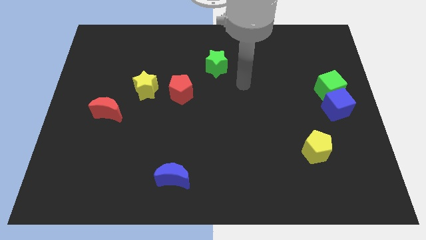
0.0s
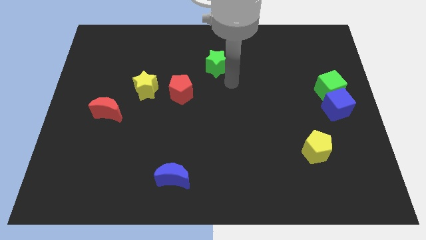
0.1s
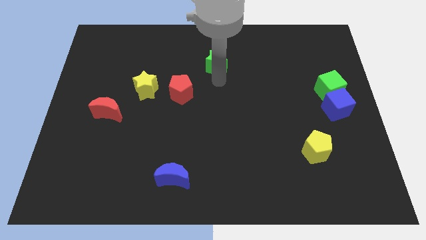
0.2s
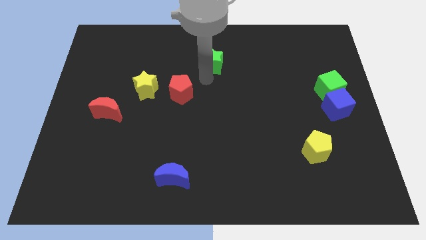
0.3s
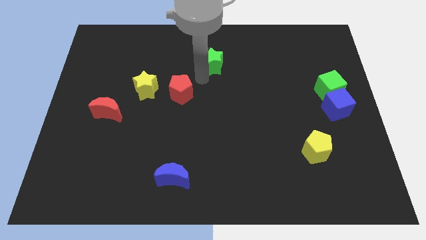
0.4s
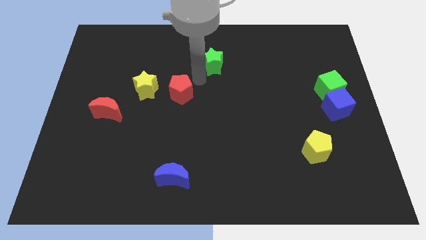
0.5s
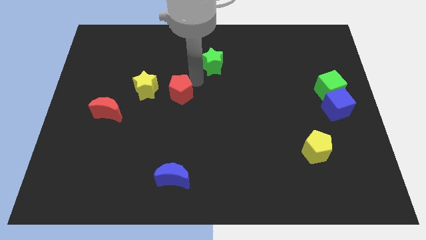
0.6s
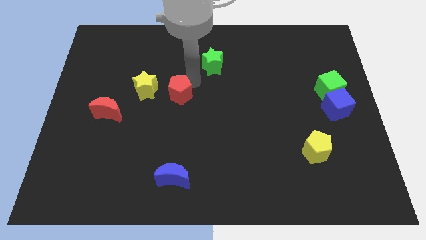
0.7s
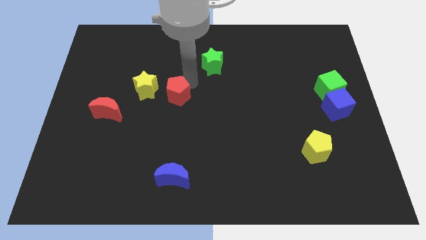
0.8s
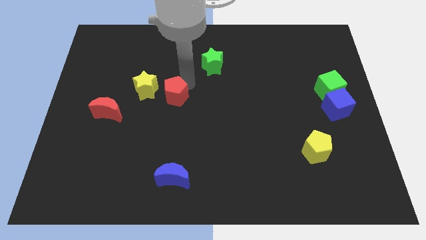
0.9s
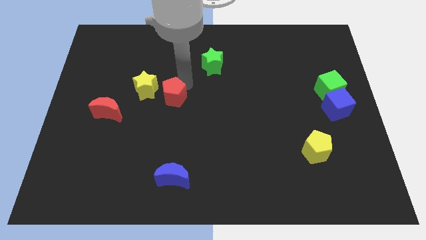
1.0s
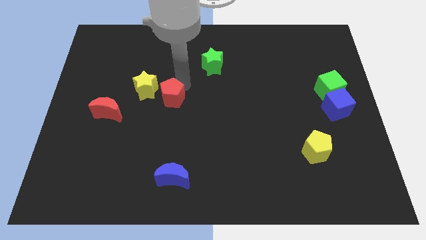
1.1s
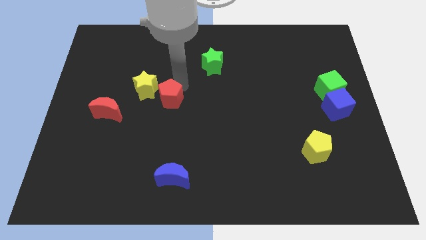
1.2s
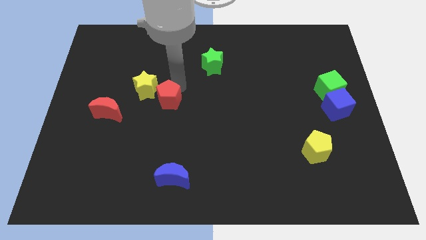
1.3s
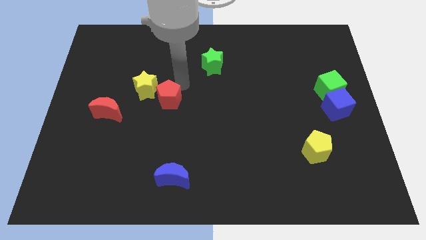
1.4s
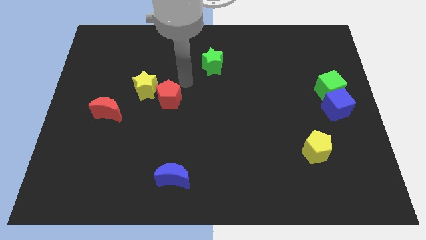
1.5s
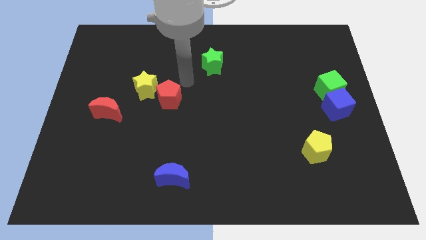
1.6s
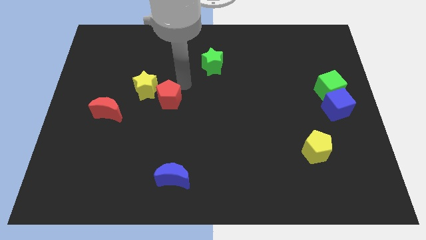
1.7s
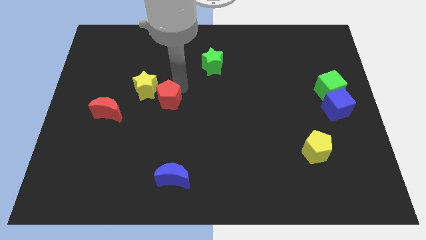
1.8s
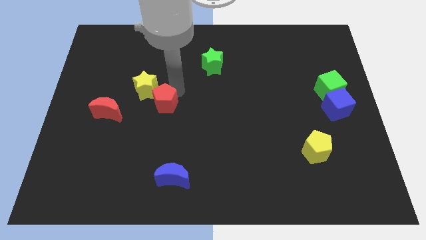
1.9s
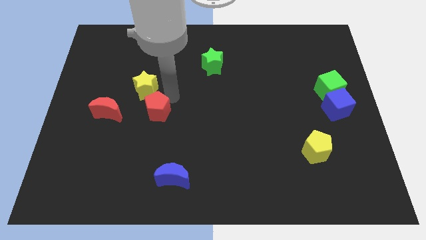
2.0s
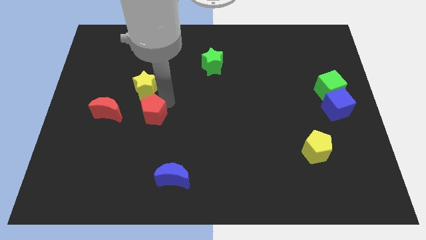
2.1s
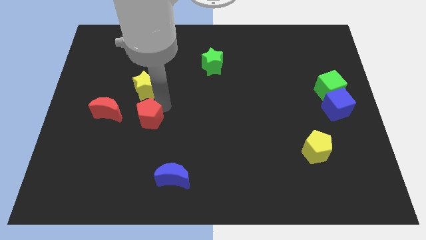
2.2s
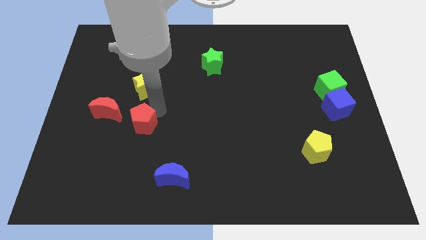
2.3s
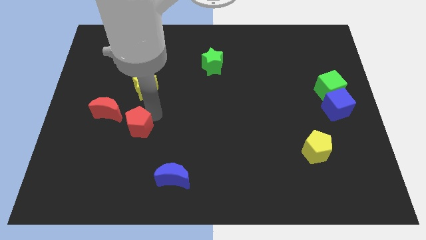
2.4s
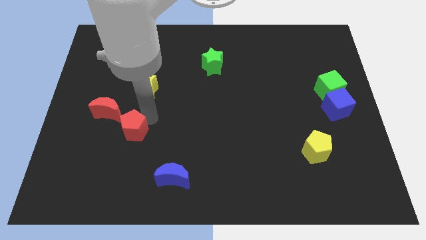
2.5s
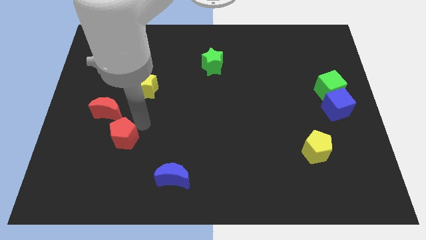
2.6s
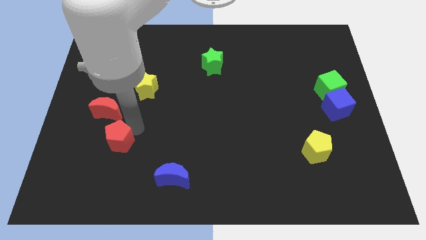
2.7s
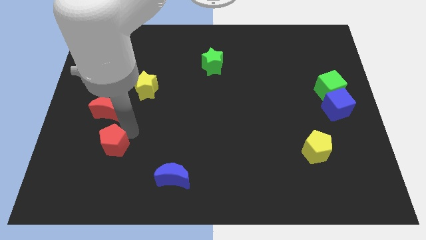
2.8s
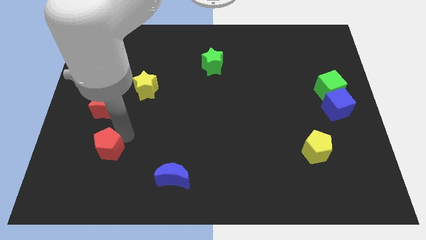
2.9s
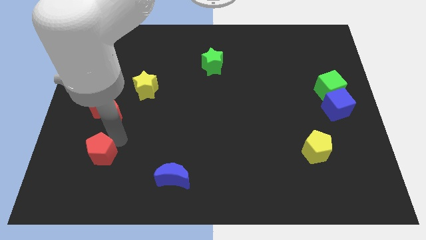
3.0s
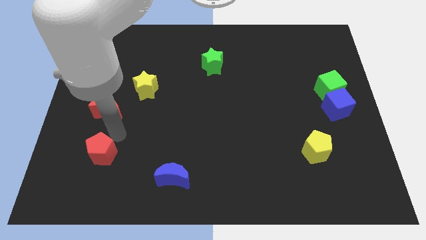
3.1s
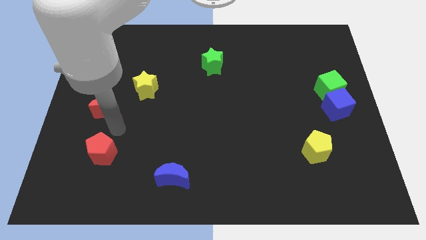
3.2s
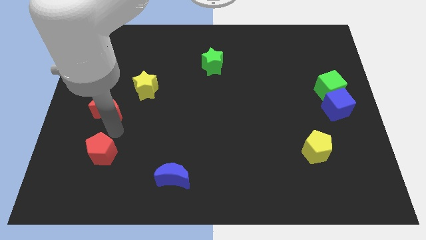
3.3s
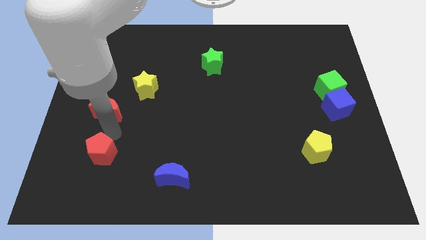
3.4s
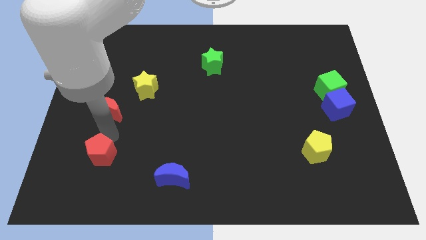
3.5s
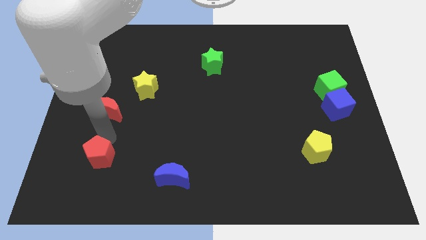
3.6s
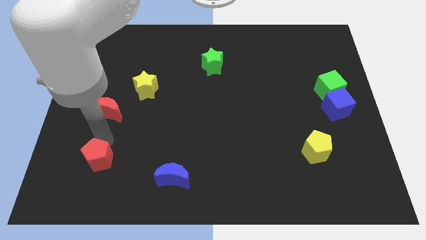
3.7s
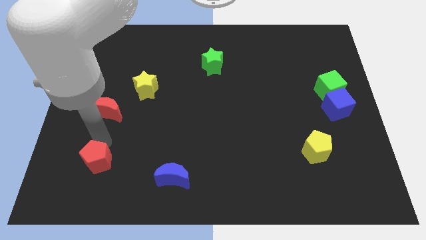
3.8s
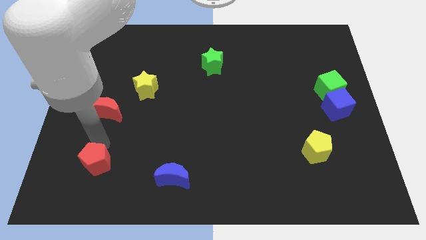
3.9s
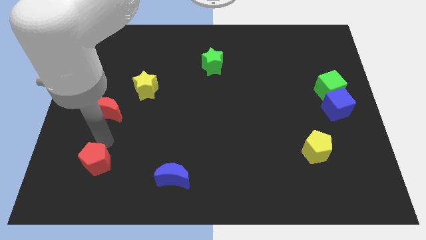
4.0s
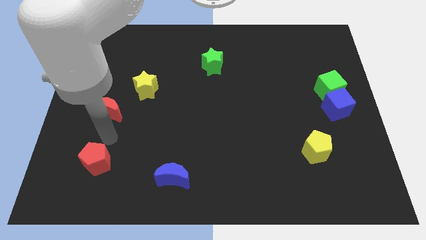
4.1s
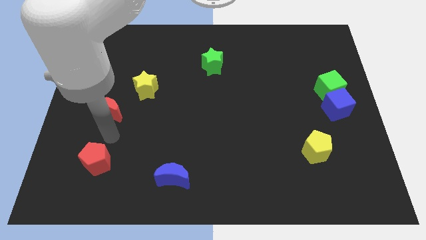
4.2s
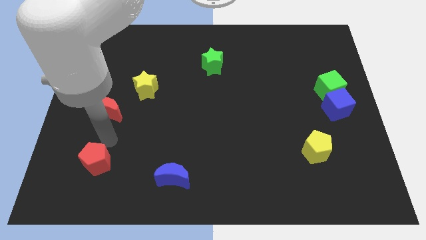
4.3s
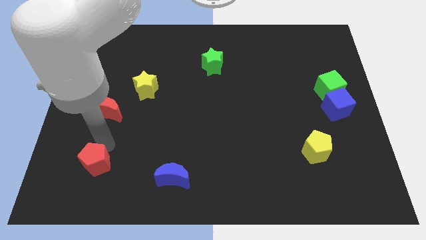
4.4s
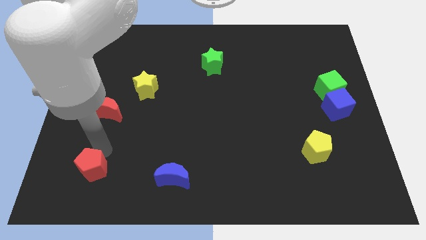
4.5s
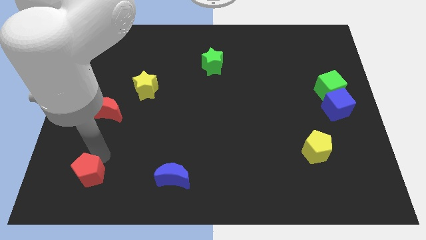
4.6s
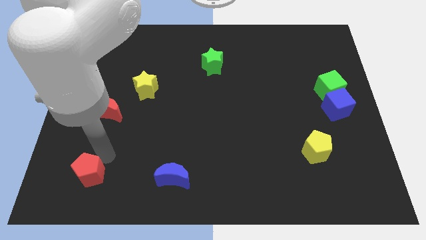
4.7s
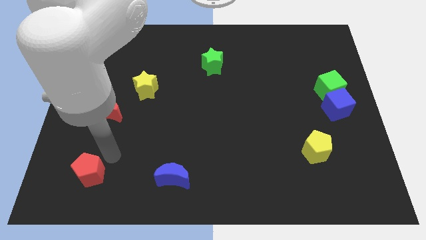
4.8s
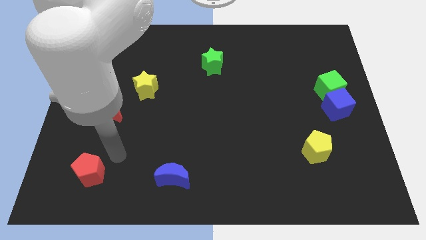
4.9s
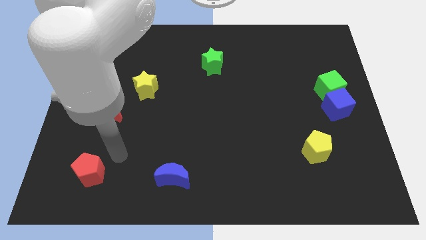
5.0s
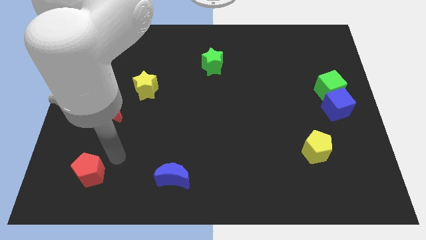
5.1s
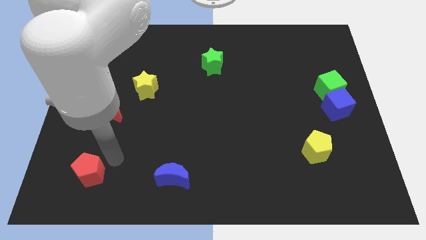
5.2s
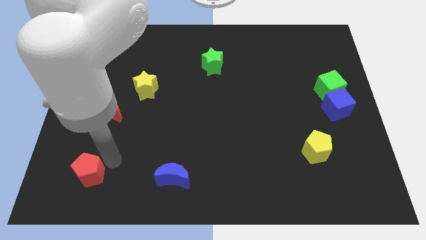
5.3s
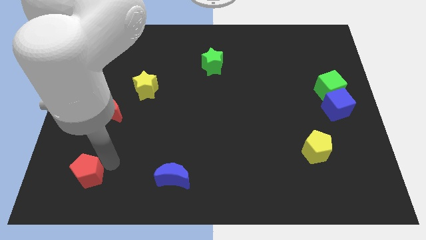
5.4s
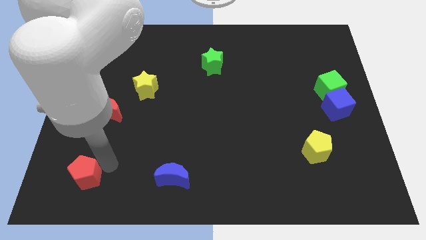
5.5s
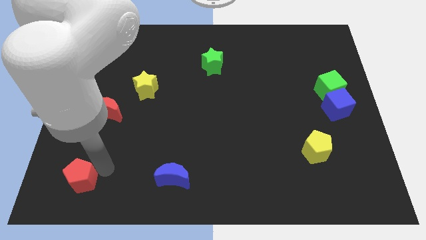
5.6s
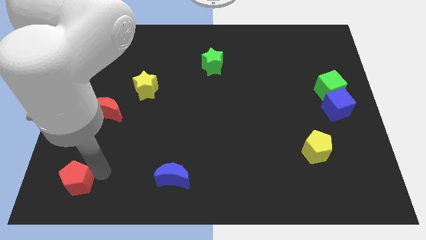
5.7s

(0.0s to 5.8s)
move the red pentagon to the bottom left of the board

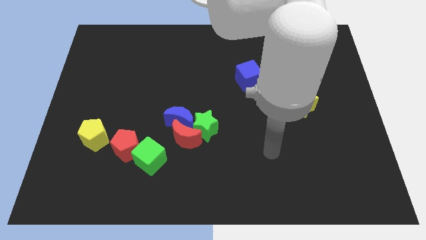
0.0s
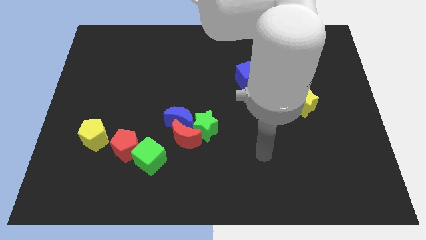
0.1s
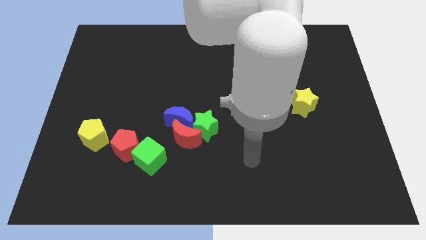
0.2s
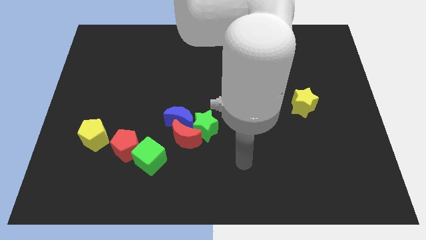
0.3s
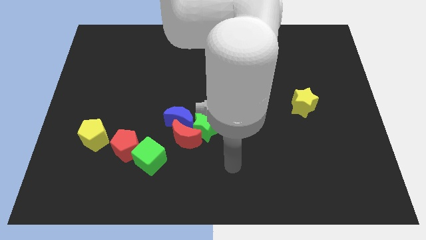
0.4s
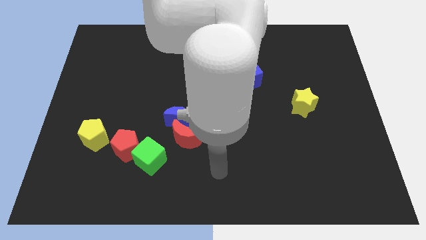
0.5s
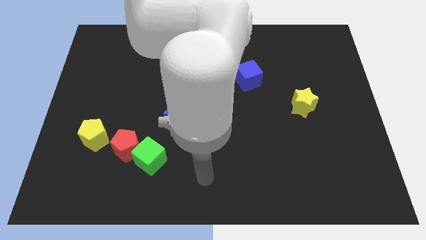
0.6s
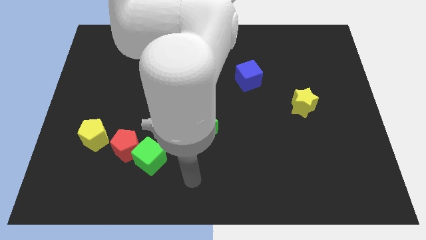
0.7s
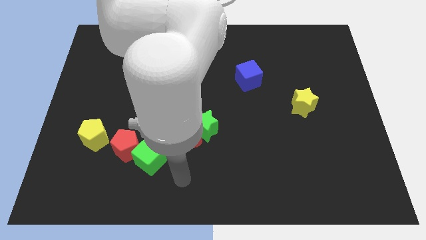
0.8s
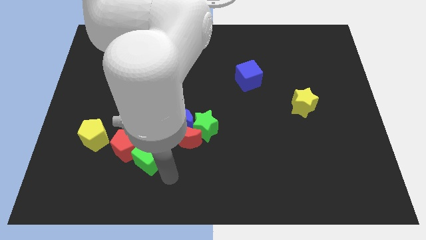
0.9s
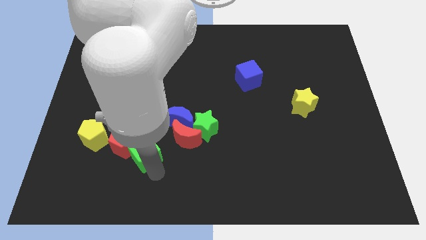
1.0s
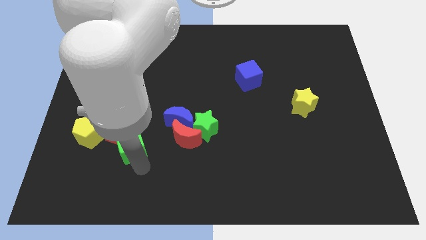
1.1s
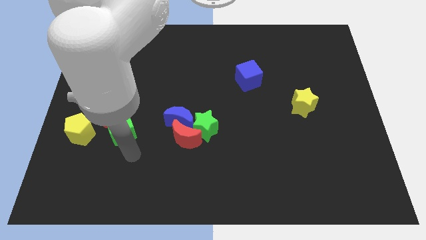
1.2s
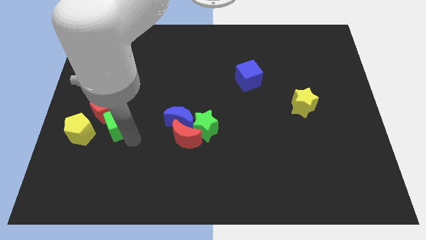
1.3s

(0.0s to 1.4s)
put the red pentagon to the left side of the board
